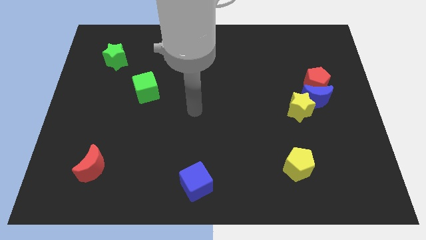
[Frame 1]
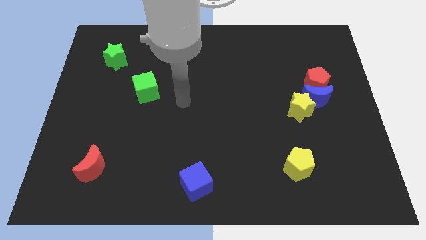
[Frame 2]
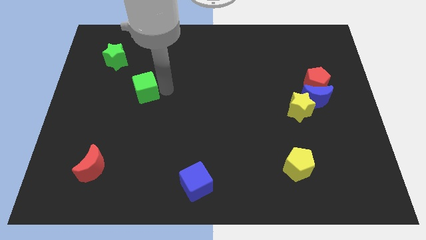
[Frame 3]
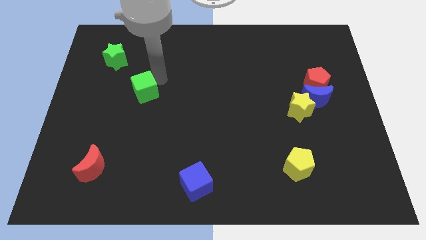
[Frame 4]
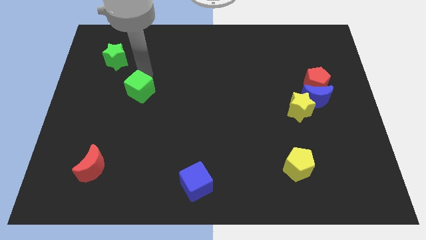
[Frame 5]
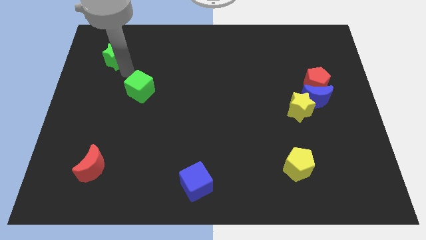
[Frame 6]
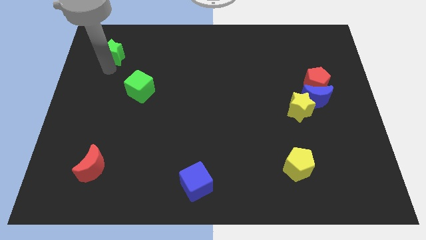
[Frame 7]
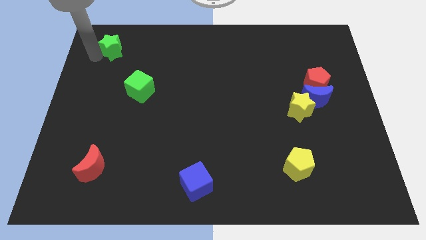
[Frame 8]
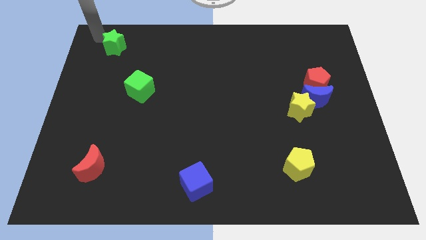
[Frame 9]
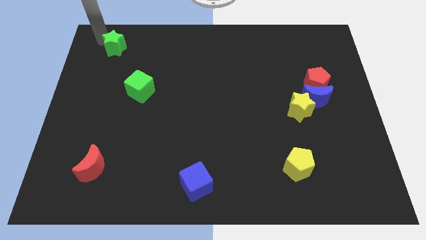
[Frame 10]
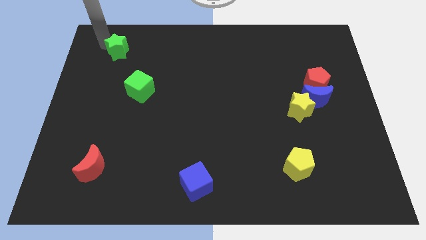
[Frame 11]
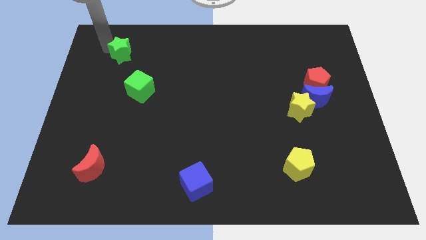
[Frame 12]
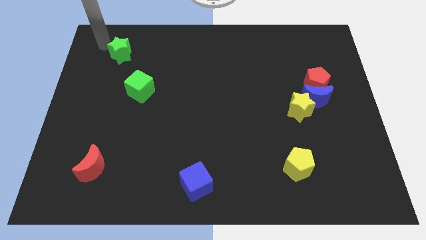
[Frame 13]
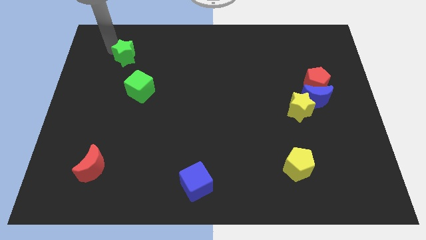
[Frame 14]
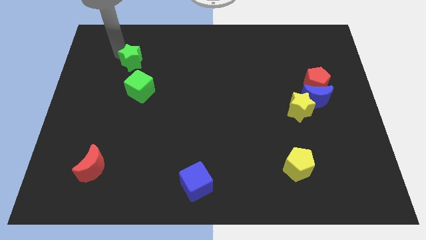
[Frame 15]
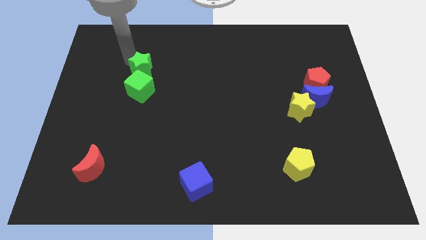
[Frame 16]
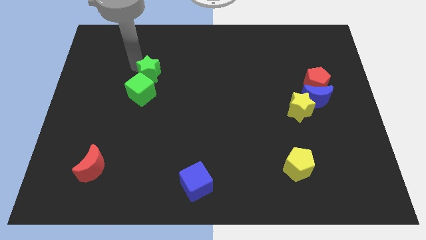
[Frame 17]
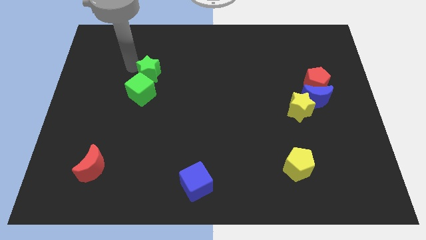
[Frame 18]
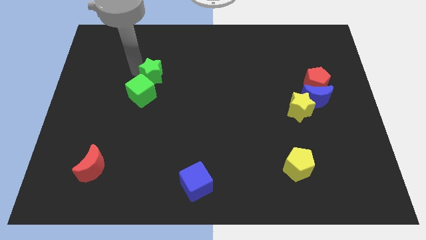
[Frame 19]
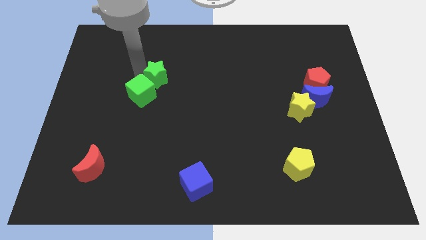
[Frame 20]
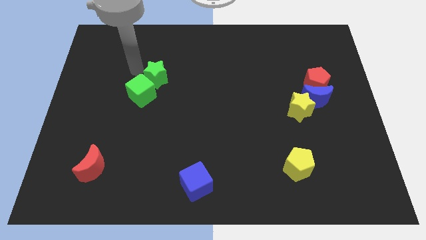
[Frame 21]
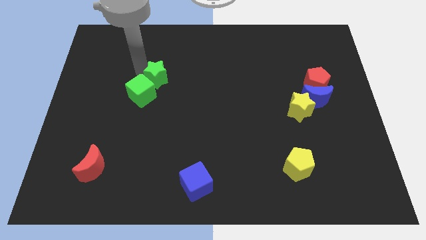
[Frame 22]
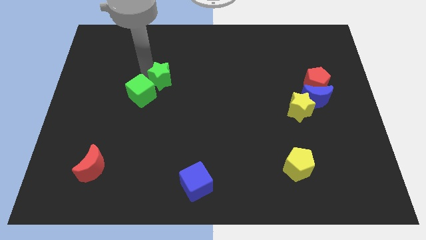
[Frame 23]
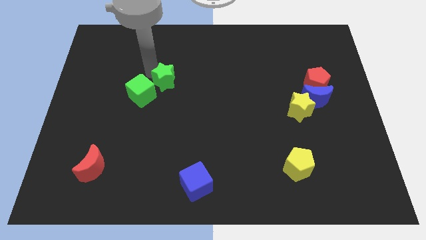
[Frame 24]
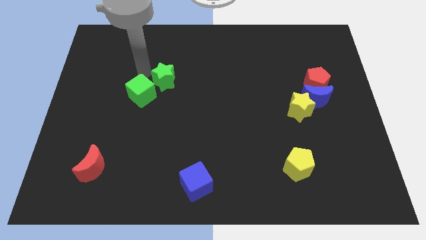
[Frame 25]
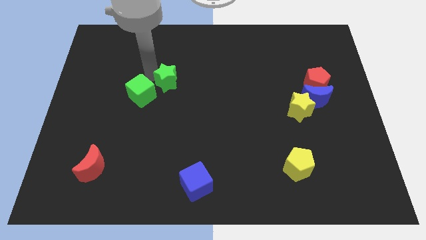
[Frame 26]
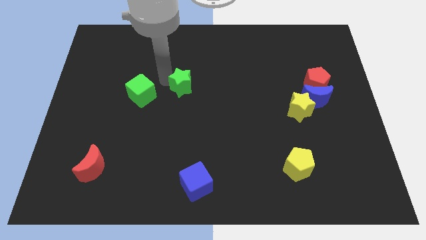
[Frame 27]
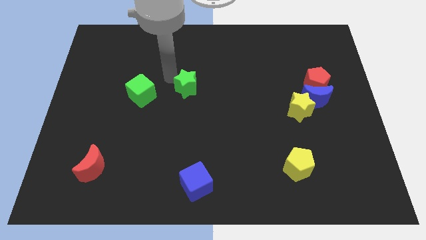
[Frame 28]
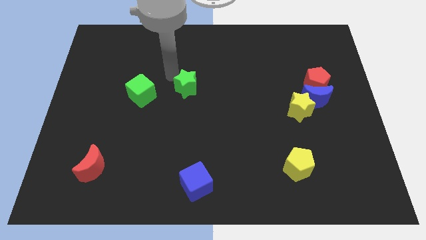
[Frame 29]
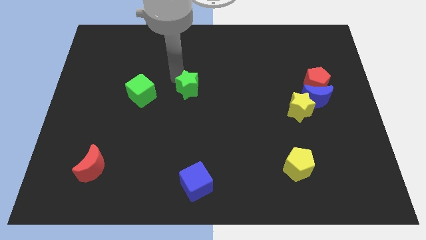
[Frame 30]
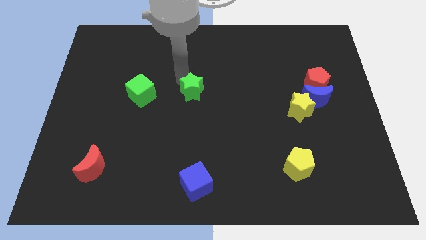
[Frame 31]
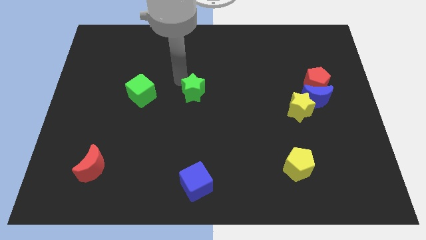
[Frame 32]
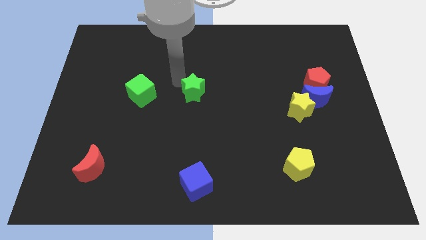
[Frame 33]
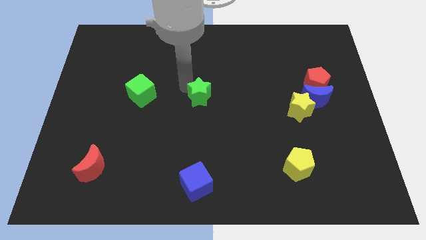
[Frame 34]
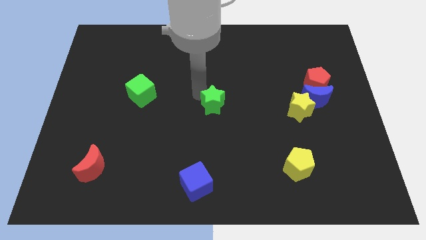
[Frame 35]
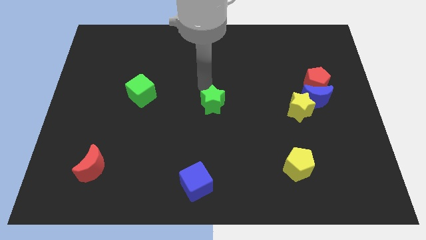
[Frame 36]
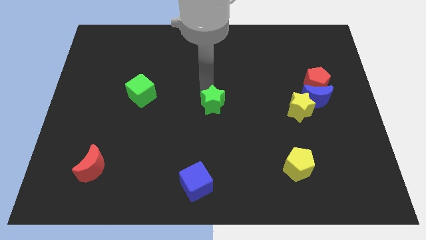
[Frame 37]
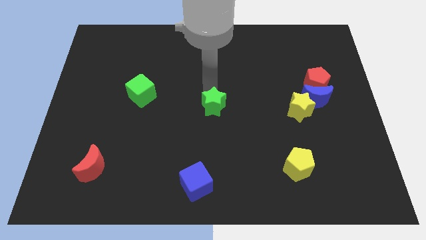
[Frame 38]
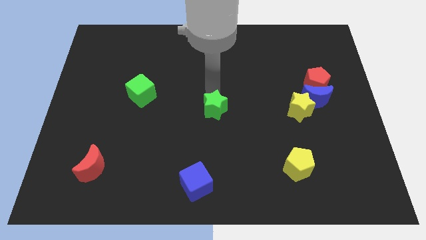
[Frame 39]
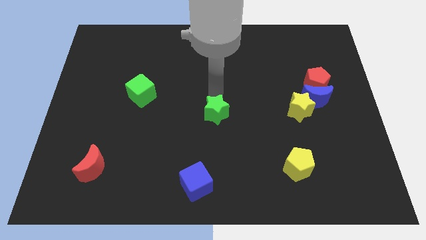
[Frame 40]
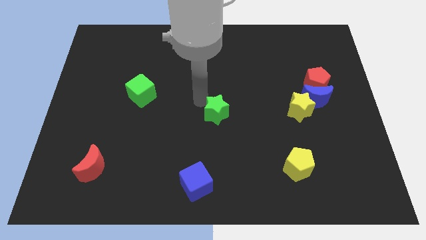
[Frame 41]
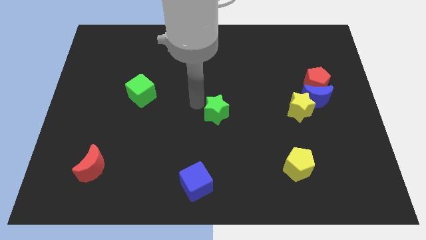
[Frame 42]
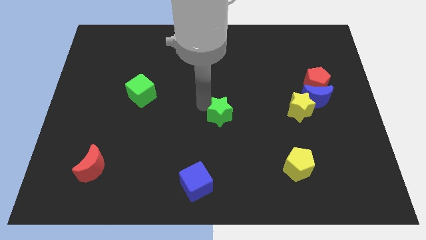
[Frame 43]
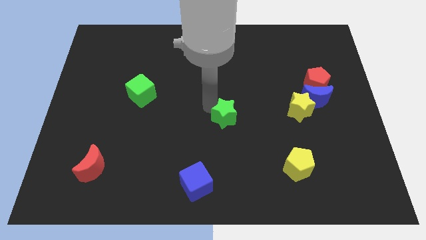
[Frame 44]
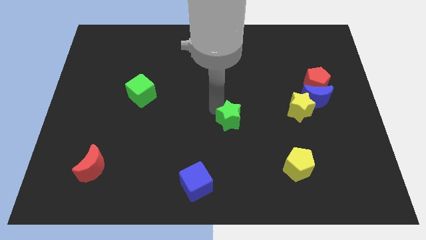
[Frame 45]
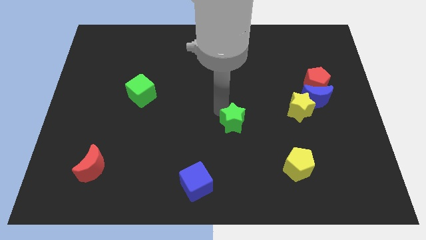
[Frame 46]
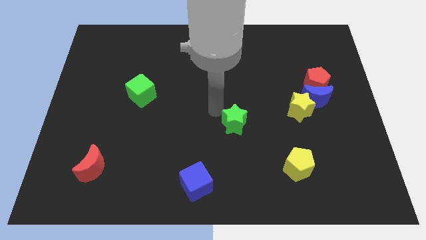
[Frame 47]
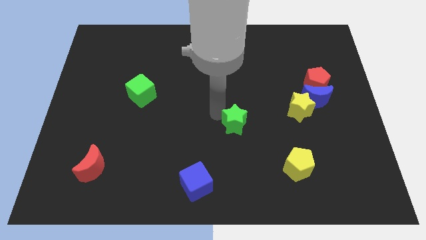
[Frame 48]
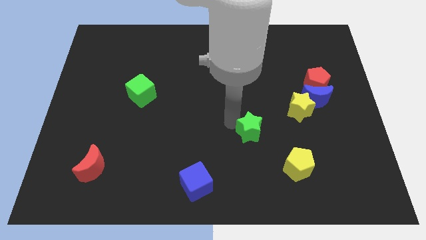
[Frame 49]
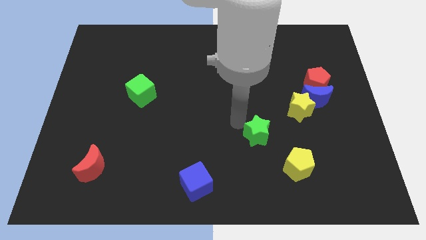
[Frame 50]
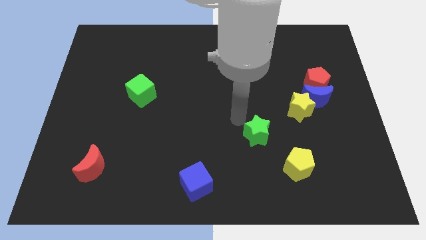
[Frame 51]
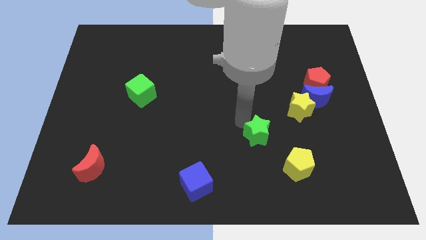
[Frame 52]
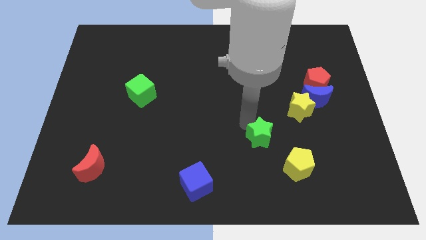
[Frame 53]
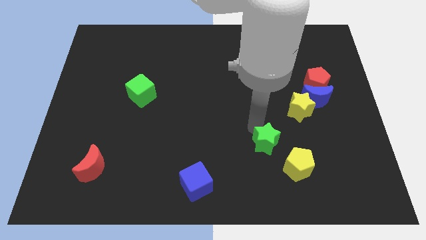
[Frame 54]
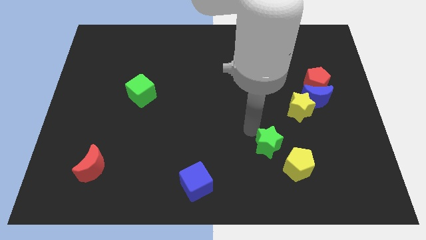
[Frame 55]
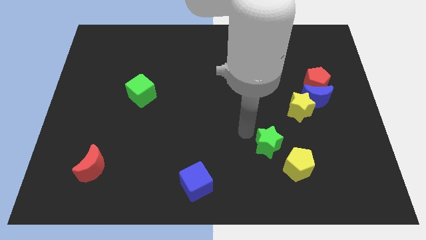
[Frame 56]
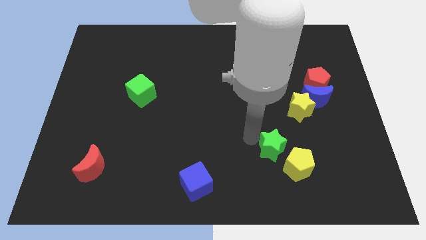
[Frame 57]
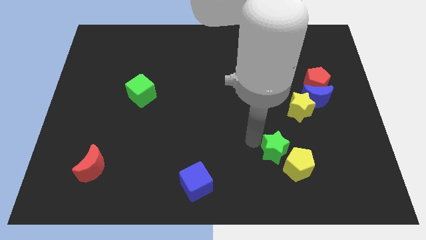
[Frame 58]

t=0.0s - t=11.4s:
slide the green star to the yellow pentagon

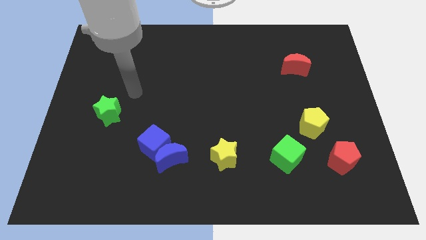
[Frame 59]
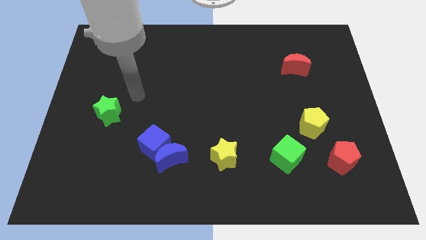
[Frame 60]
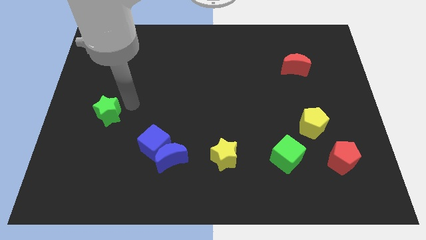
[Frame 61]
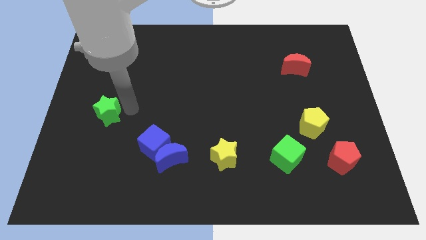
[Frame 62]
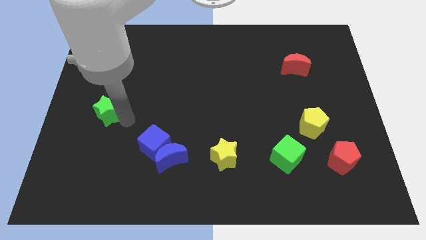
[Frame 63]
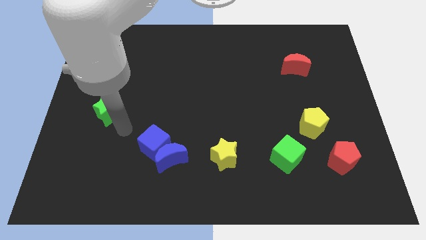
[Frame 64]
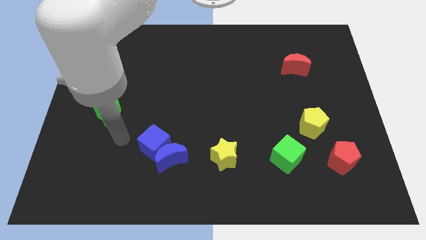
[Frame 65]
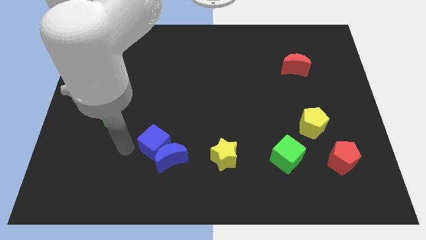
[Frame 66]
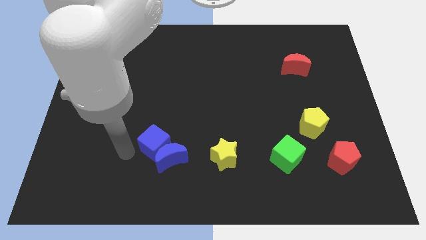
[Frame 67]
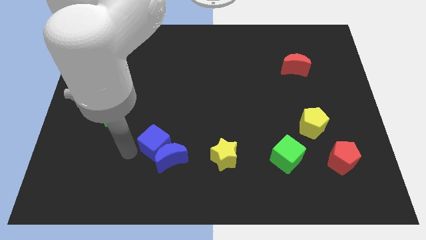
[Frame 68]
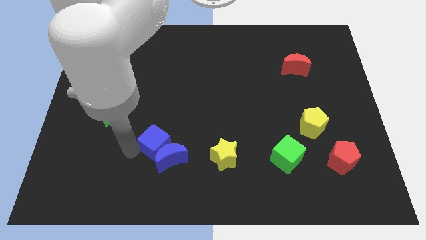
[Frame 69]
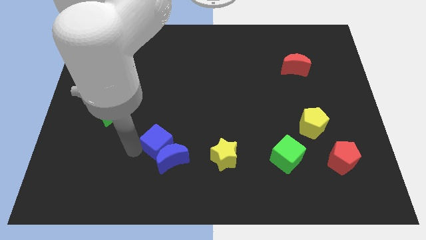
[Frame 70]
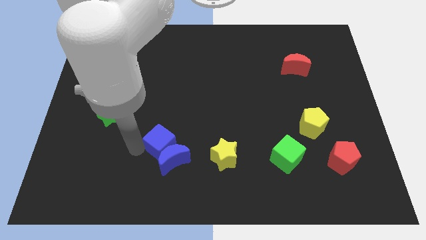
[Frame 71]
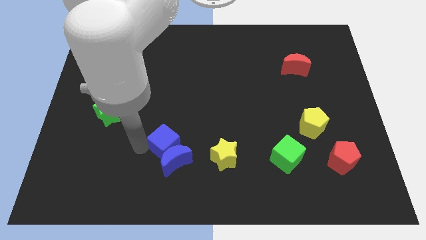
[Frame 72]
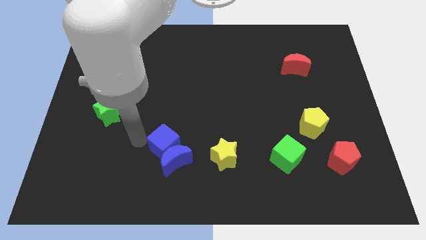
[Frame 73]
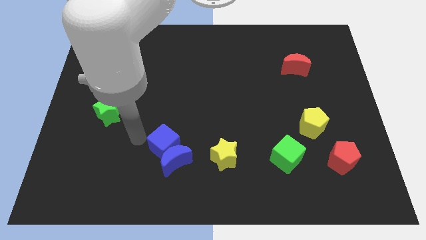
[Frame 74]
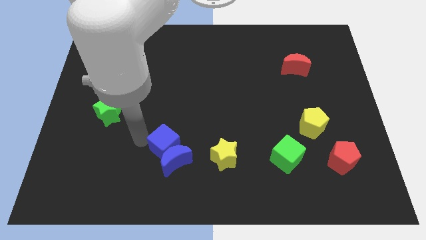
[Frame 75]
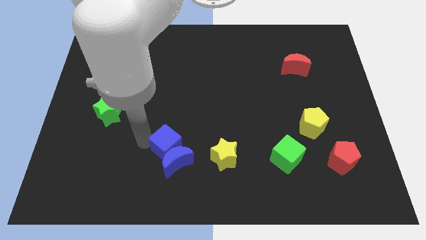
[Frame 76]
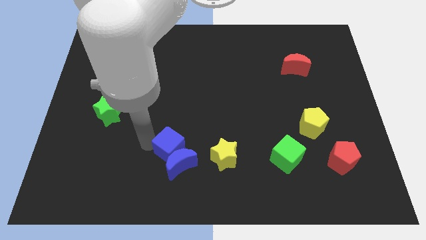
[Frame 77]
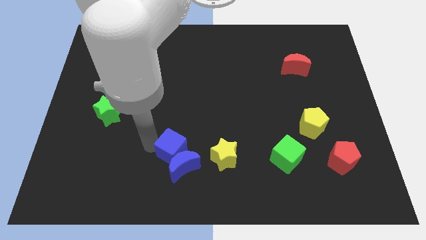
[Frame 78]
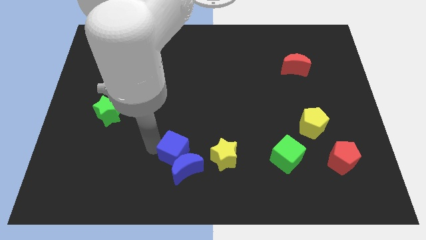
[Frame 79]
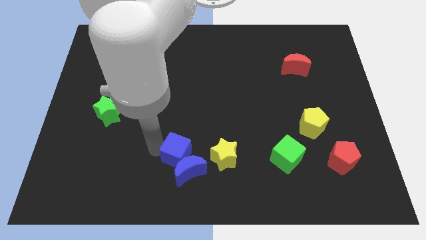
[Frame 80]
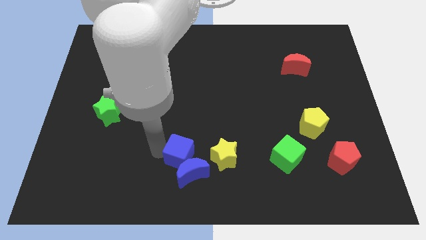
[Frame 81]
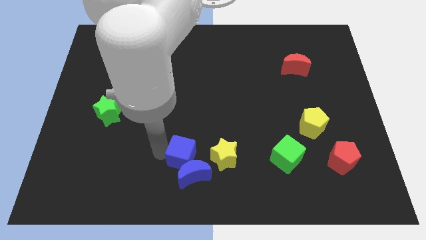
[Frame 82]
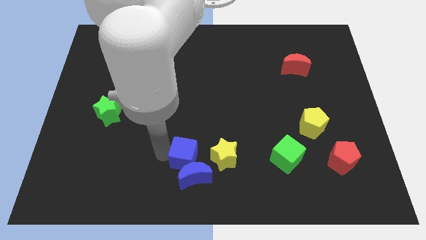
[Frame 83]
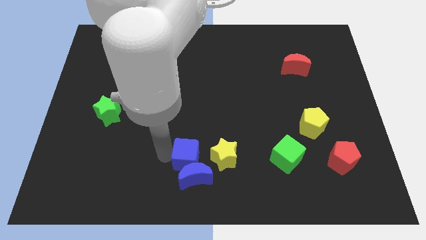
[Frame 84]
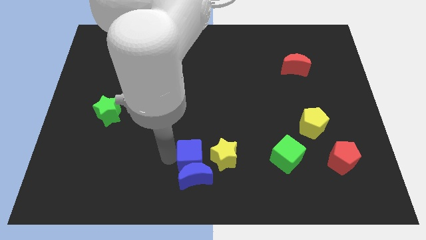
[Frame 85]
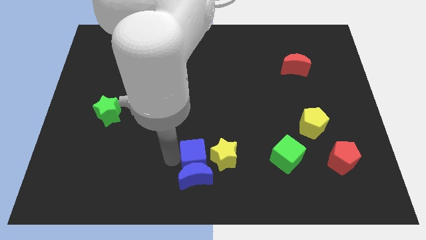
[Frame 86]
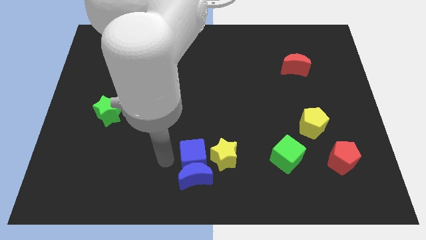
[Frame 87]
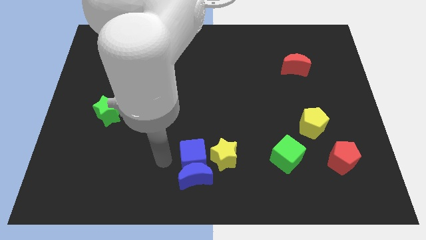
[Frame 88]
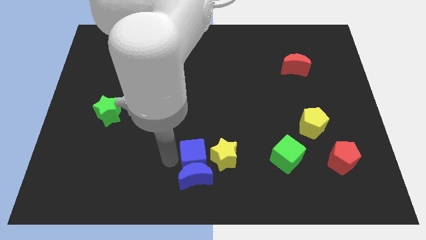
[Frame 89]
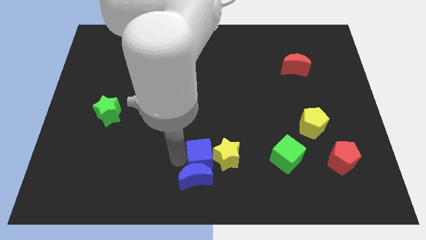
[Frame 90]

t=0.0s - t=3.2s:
move the blue cube next to the yellow star
